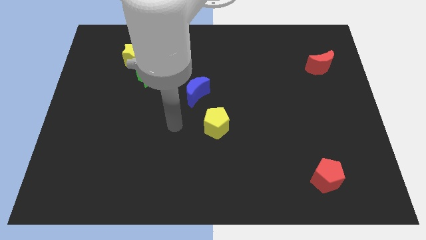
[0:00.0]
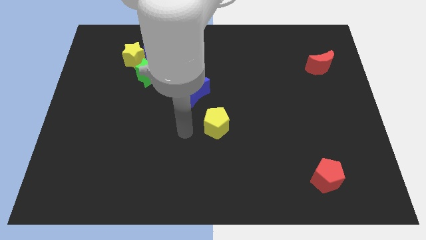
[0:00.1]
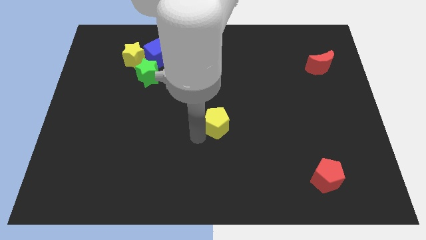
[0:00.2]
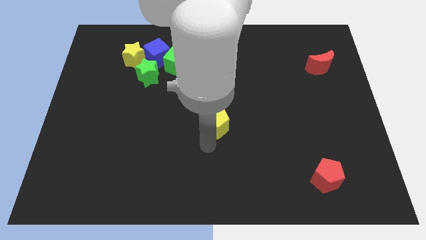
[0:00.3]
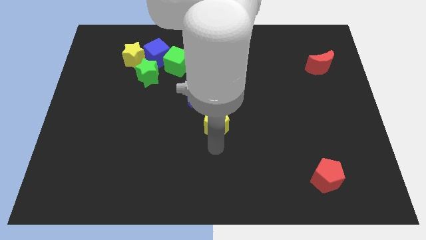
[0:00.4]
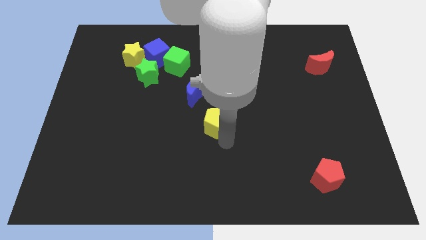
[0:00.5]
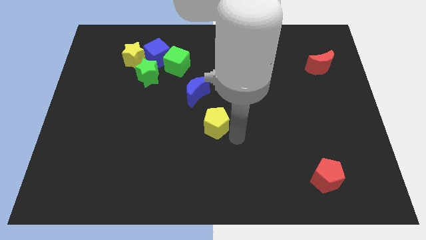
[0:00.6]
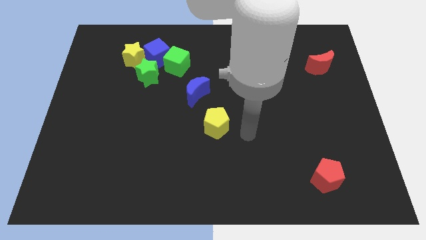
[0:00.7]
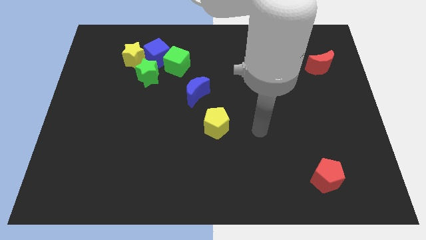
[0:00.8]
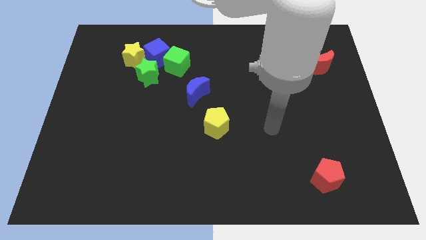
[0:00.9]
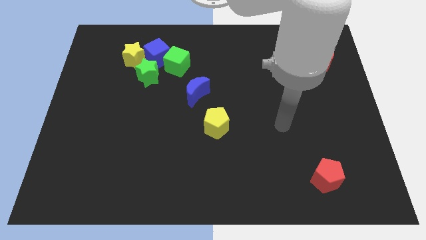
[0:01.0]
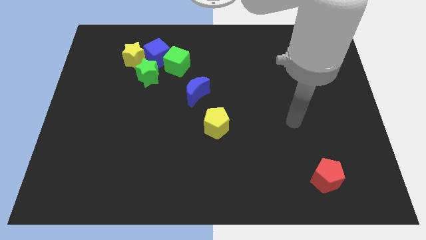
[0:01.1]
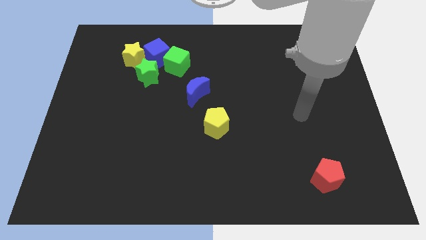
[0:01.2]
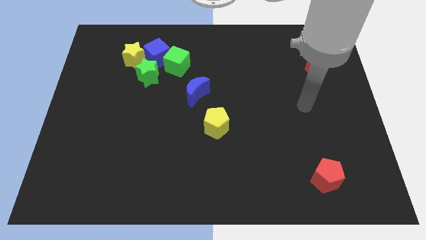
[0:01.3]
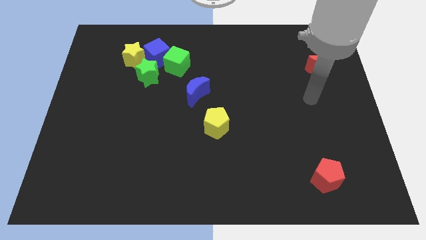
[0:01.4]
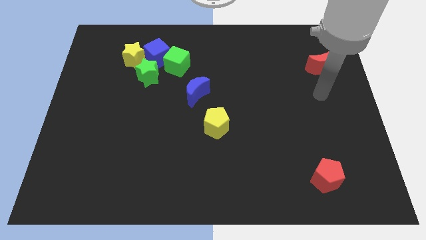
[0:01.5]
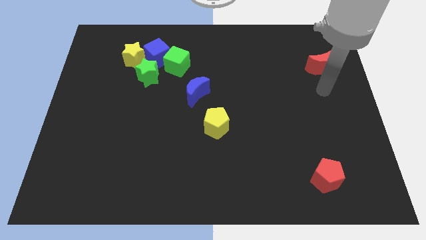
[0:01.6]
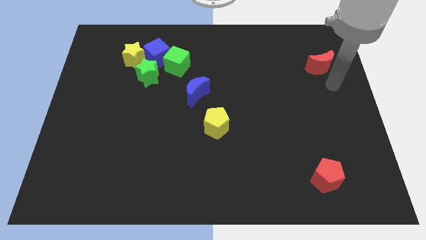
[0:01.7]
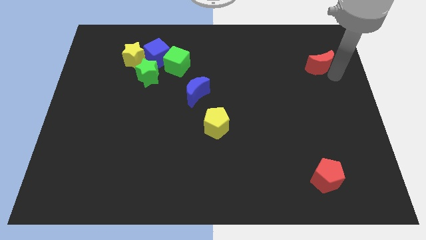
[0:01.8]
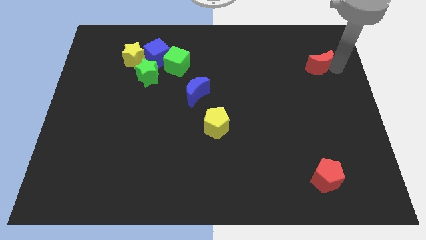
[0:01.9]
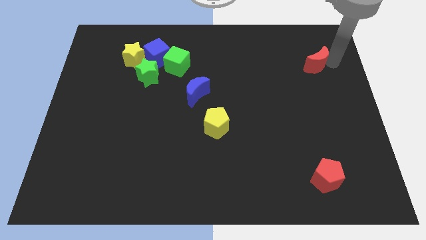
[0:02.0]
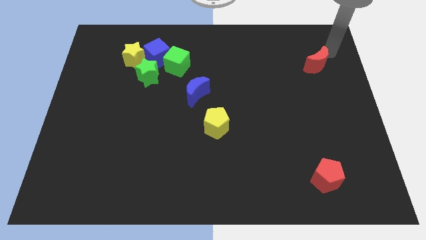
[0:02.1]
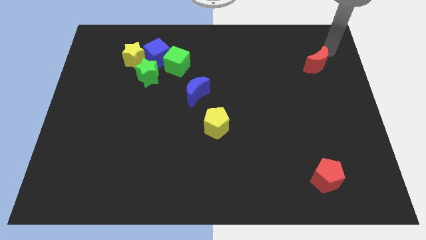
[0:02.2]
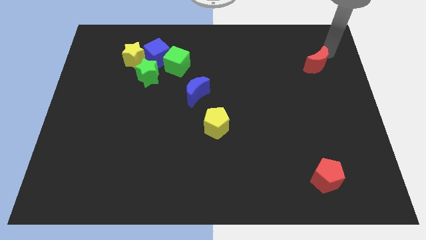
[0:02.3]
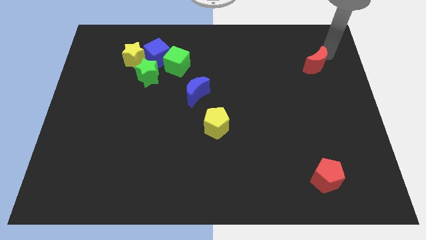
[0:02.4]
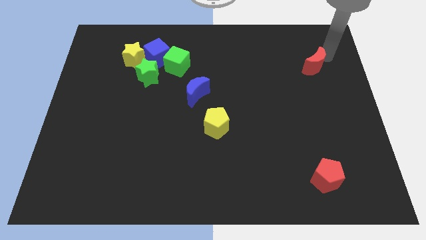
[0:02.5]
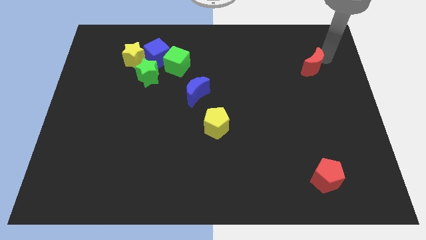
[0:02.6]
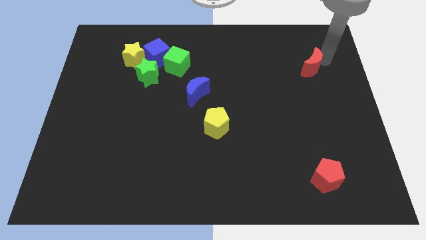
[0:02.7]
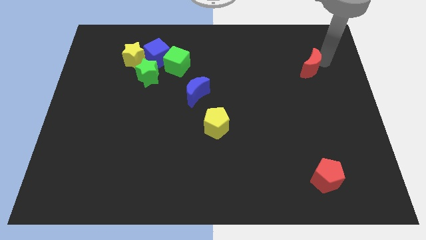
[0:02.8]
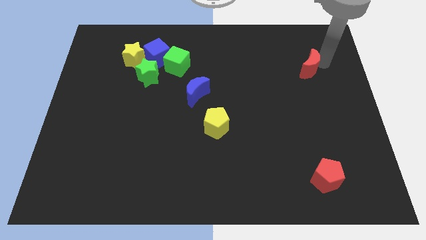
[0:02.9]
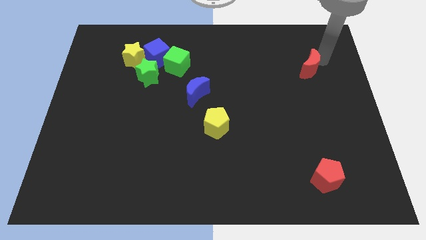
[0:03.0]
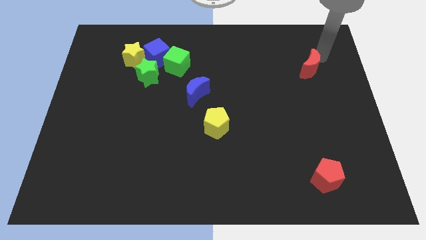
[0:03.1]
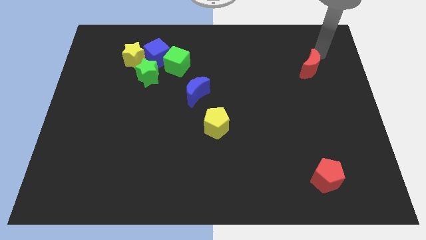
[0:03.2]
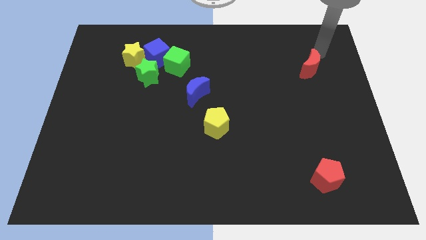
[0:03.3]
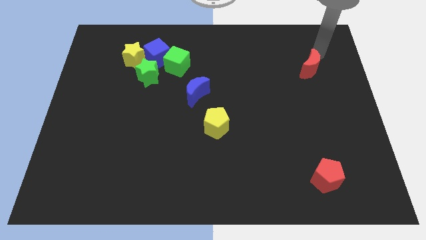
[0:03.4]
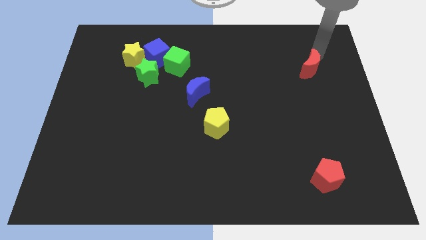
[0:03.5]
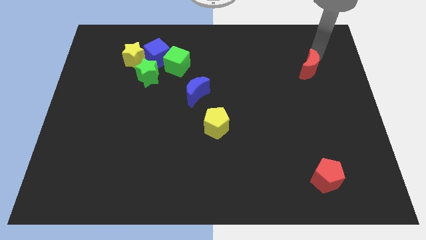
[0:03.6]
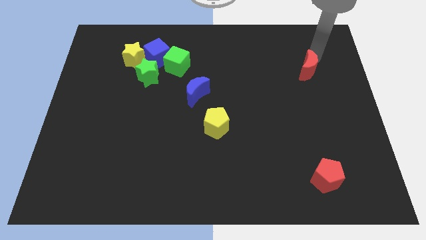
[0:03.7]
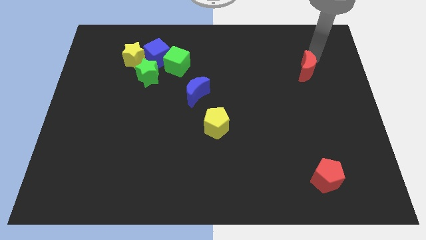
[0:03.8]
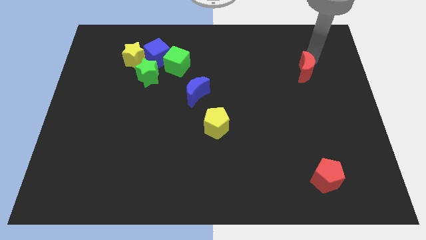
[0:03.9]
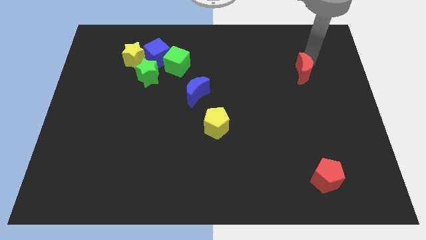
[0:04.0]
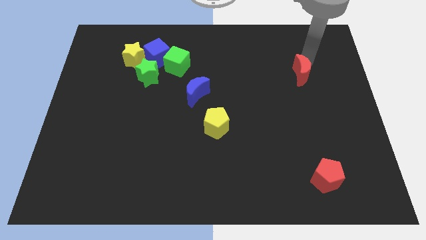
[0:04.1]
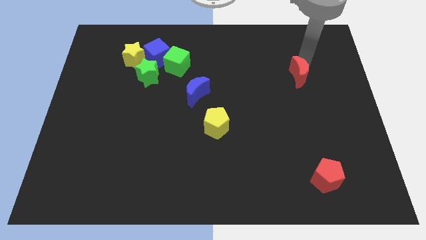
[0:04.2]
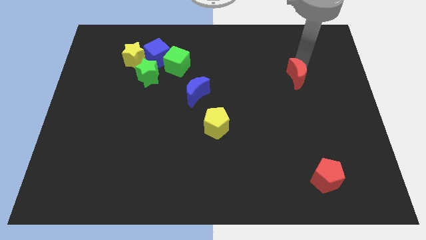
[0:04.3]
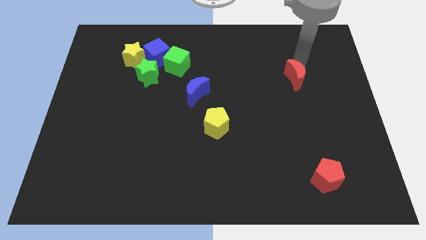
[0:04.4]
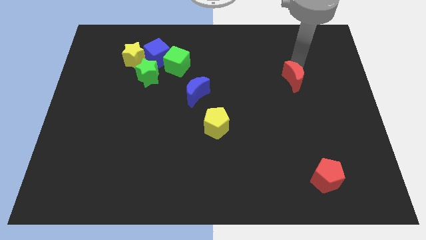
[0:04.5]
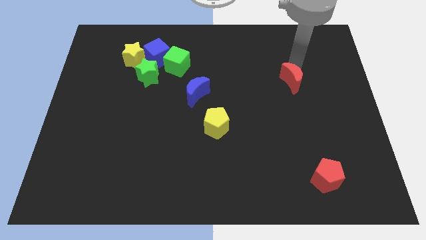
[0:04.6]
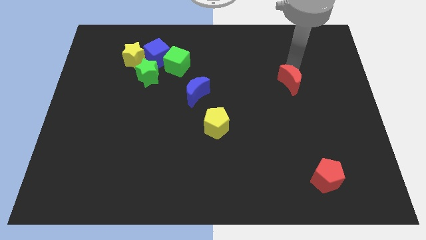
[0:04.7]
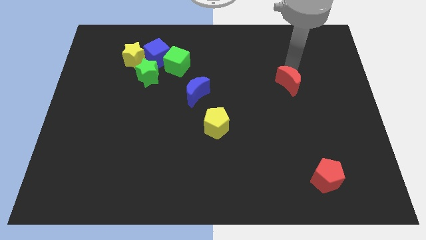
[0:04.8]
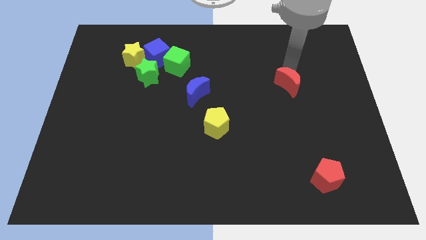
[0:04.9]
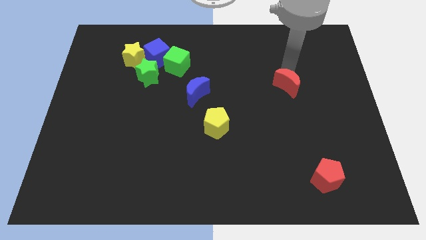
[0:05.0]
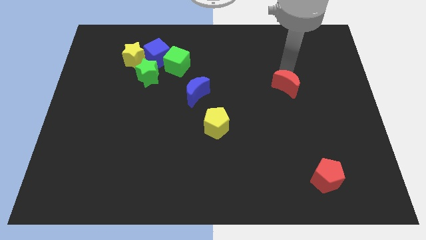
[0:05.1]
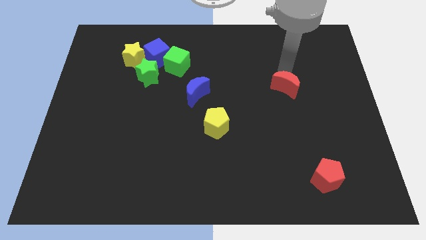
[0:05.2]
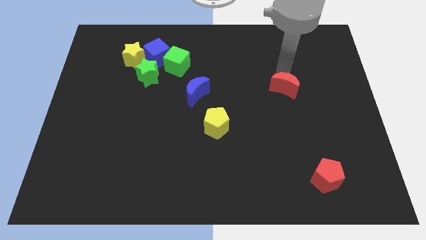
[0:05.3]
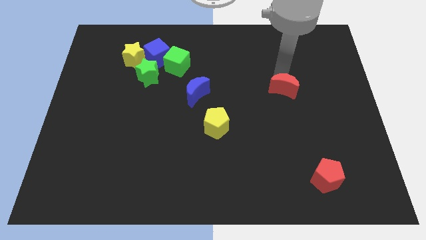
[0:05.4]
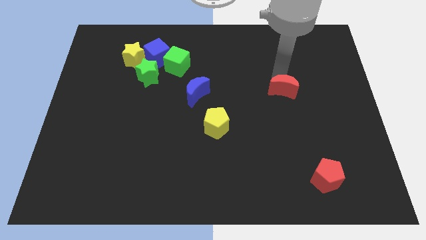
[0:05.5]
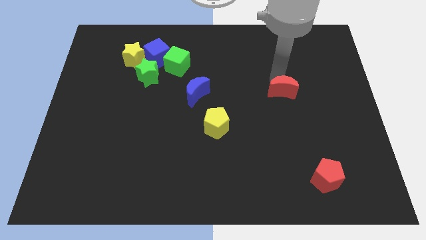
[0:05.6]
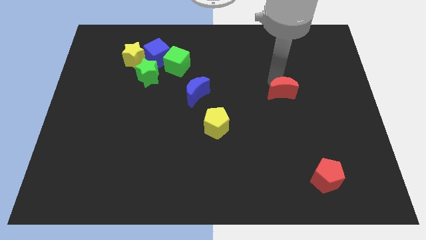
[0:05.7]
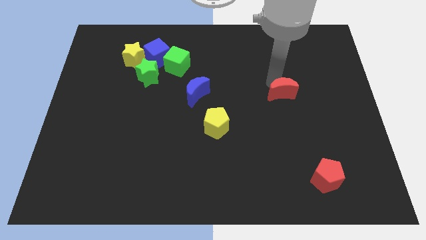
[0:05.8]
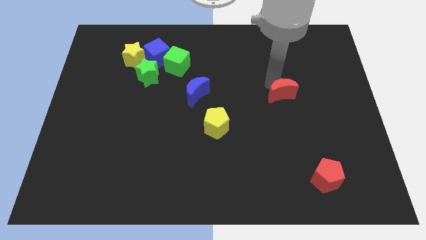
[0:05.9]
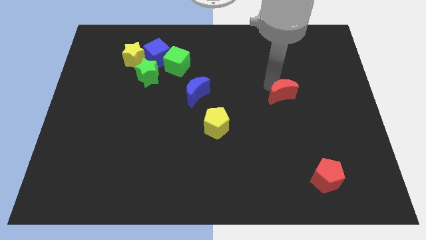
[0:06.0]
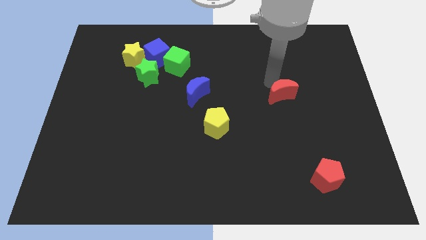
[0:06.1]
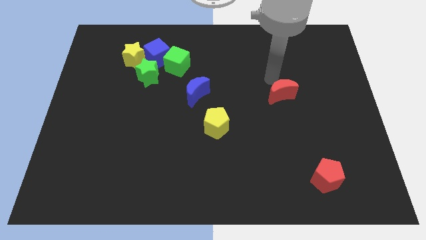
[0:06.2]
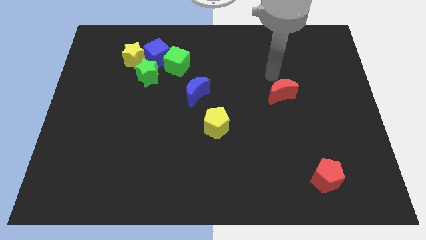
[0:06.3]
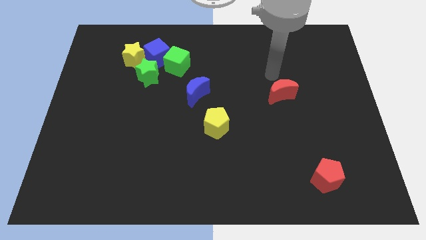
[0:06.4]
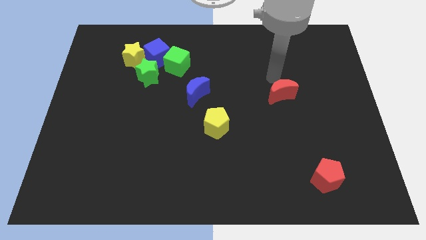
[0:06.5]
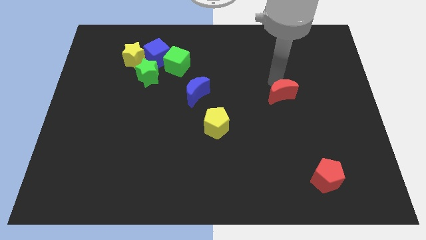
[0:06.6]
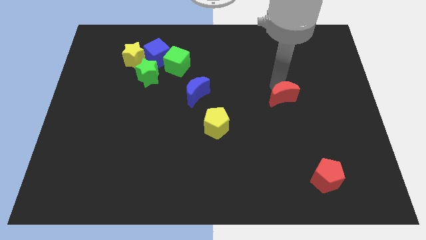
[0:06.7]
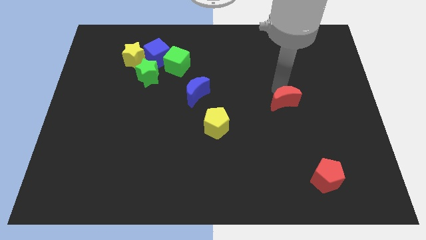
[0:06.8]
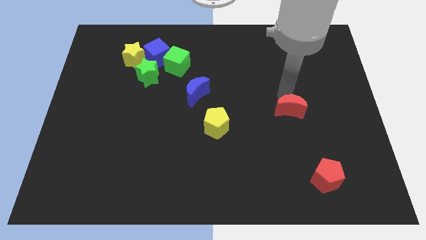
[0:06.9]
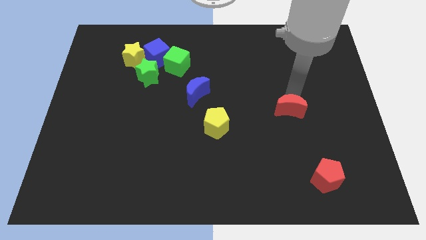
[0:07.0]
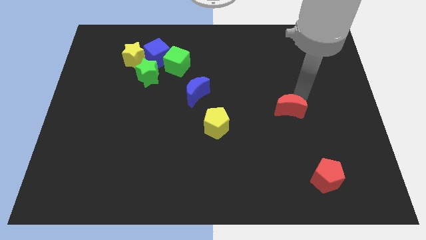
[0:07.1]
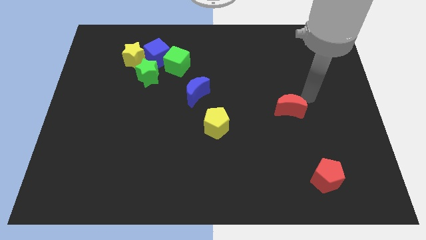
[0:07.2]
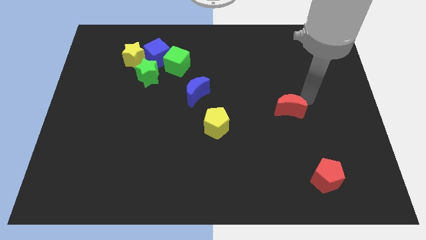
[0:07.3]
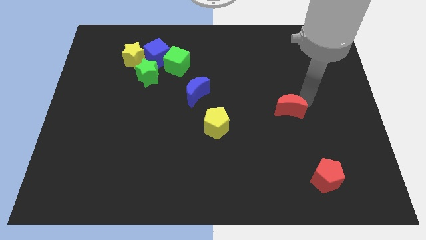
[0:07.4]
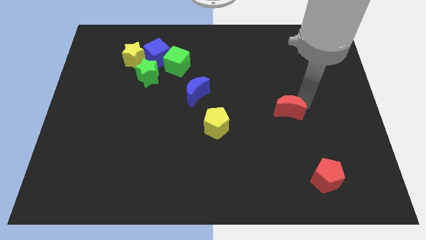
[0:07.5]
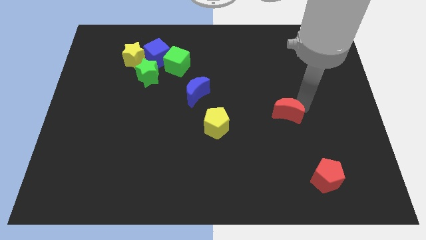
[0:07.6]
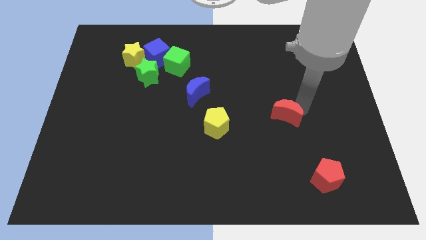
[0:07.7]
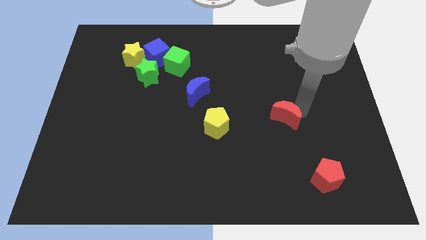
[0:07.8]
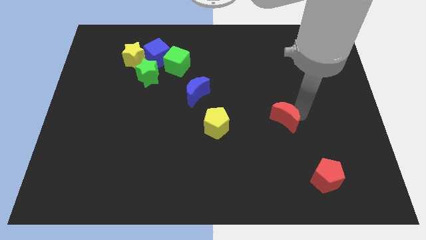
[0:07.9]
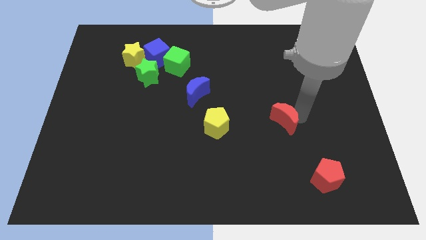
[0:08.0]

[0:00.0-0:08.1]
put the red moon to the right of the yellow pentagon
